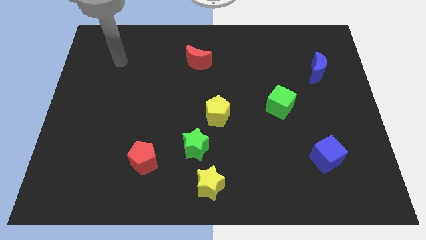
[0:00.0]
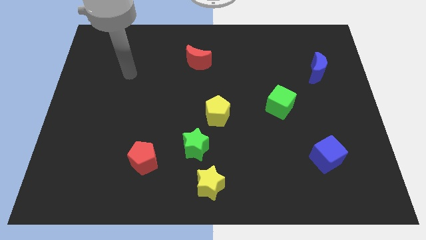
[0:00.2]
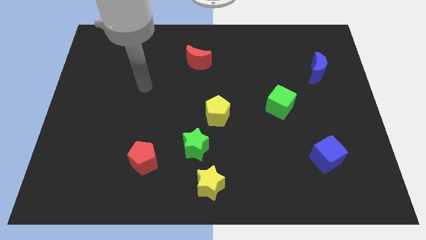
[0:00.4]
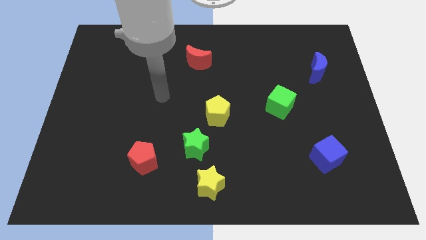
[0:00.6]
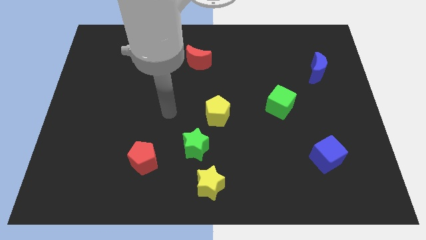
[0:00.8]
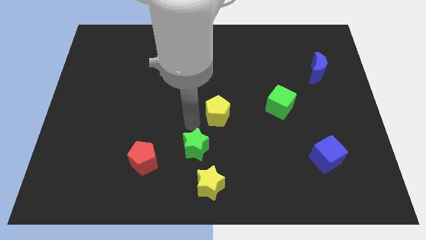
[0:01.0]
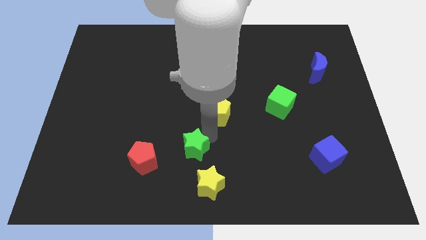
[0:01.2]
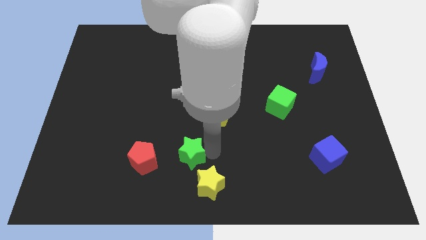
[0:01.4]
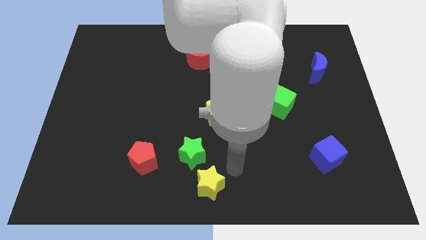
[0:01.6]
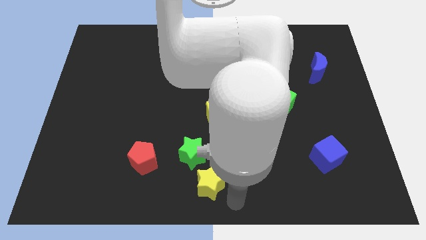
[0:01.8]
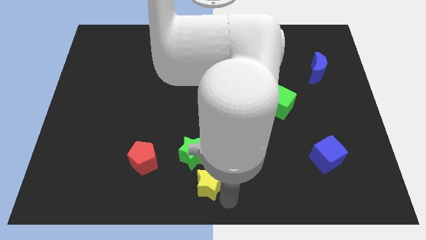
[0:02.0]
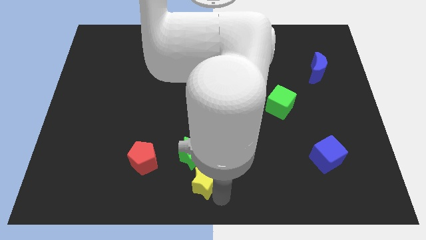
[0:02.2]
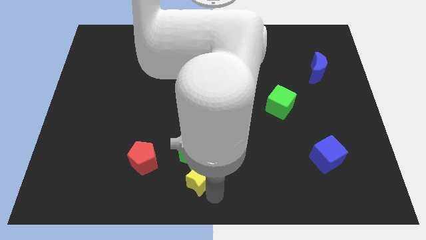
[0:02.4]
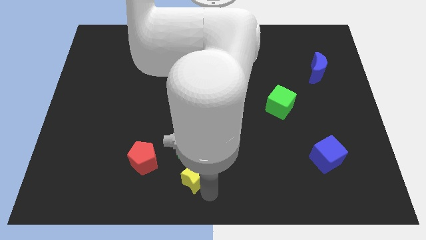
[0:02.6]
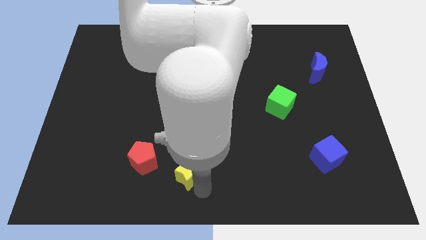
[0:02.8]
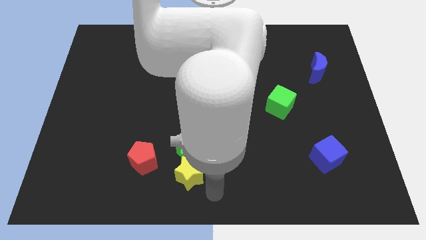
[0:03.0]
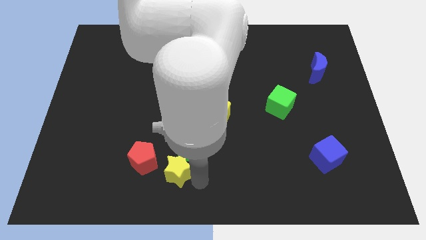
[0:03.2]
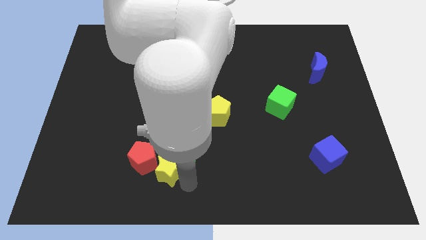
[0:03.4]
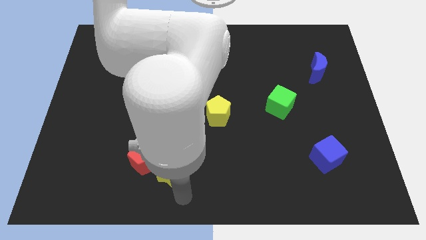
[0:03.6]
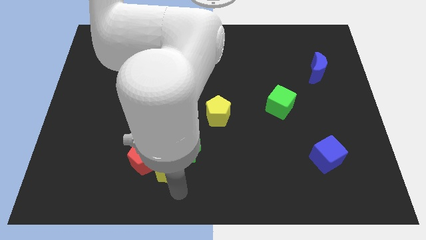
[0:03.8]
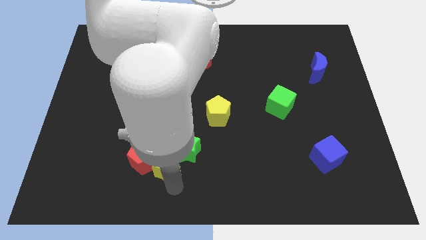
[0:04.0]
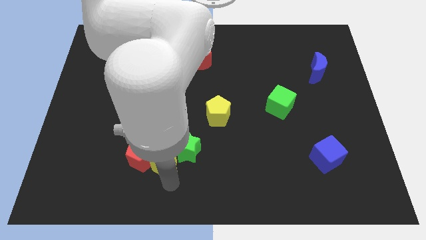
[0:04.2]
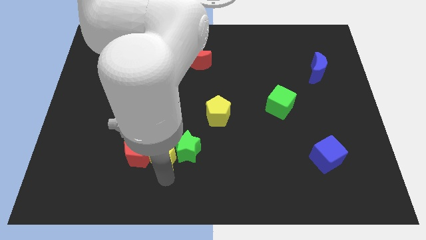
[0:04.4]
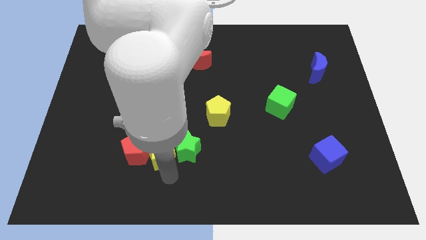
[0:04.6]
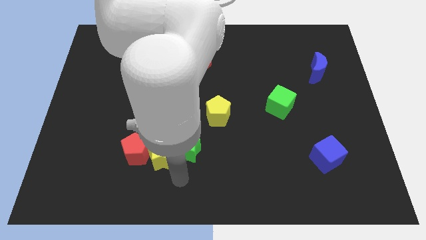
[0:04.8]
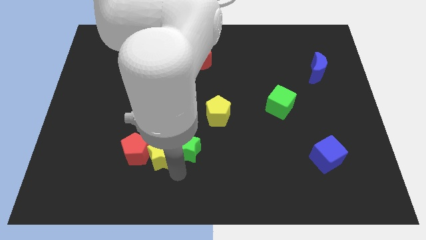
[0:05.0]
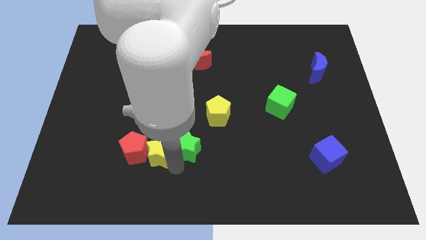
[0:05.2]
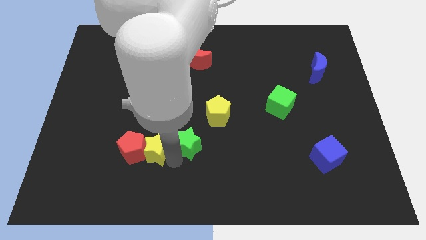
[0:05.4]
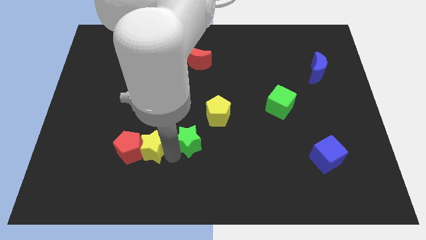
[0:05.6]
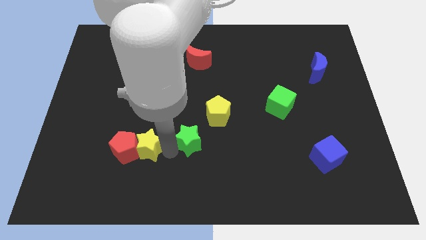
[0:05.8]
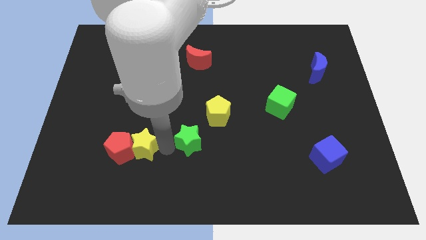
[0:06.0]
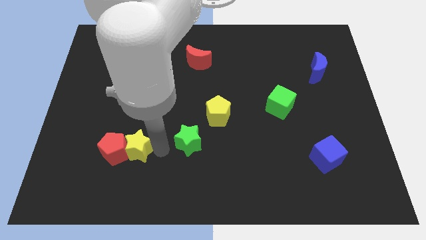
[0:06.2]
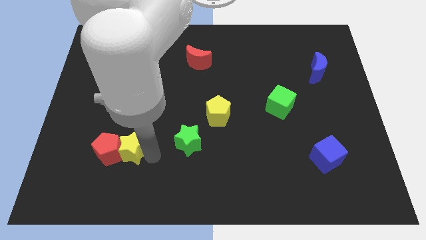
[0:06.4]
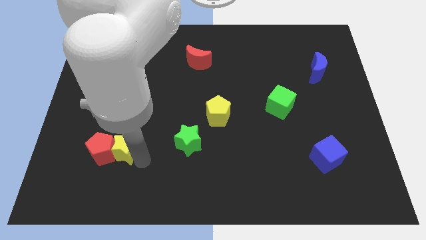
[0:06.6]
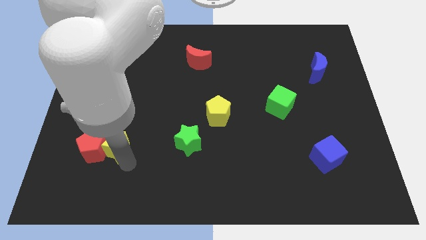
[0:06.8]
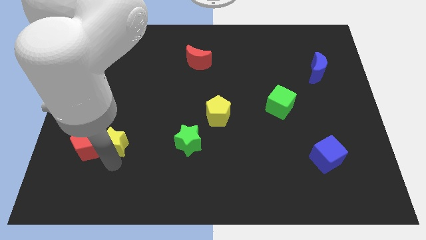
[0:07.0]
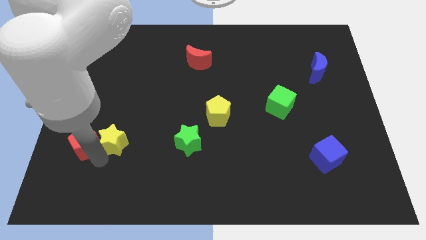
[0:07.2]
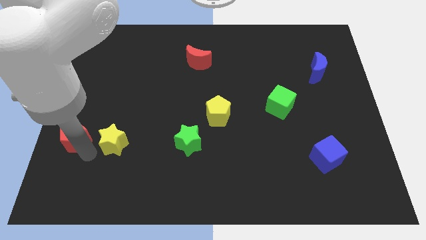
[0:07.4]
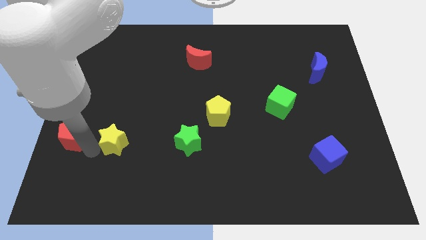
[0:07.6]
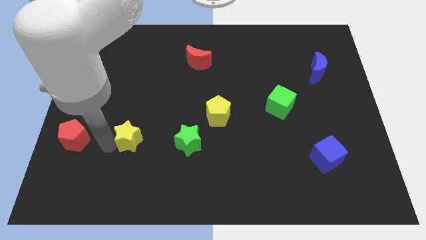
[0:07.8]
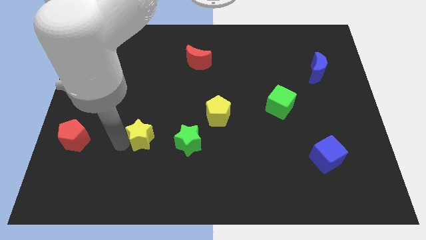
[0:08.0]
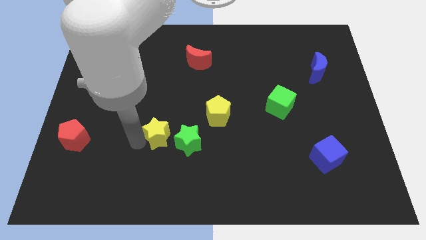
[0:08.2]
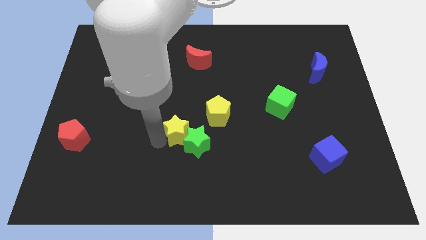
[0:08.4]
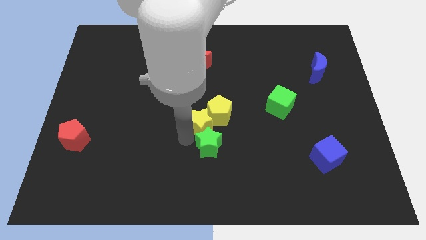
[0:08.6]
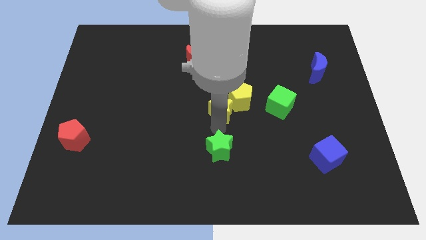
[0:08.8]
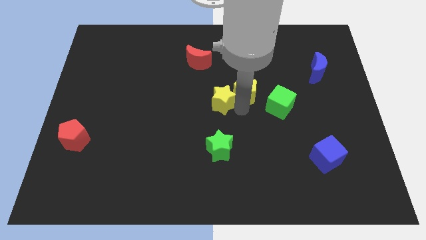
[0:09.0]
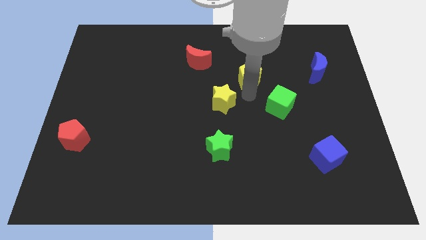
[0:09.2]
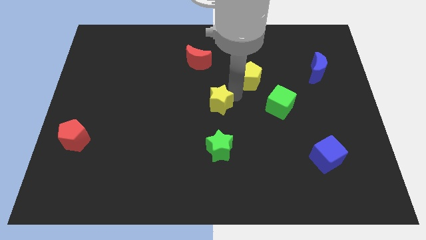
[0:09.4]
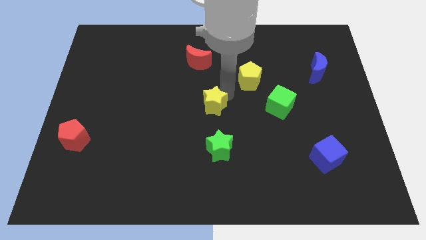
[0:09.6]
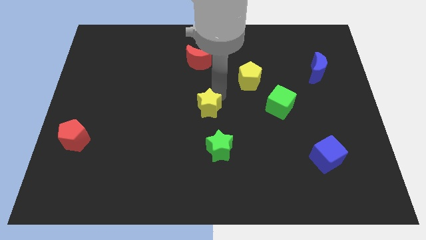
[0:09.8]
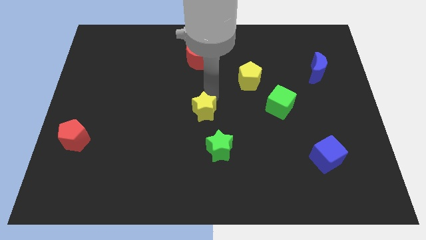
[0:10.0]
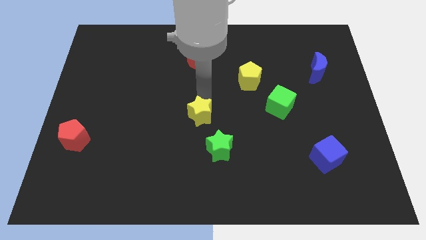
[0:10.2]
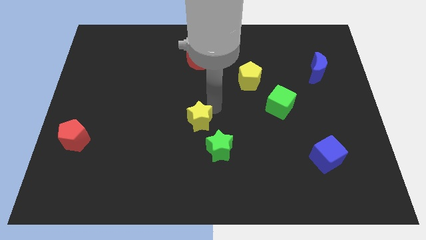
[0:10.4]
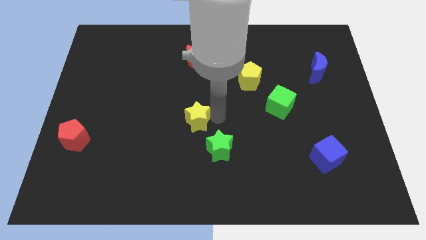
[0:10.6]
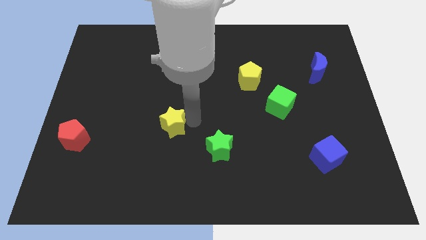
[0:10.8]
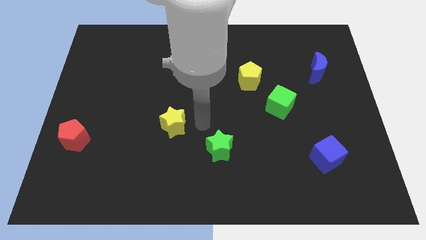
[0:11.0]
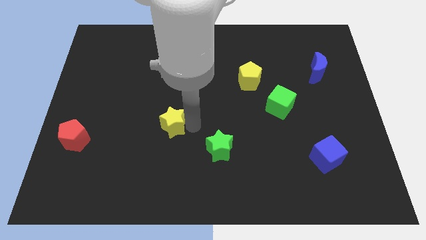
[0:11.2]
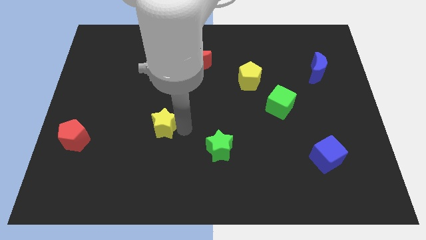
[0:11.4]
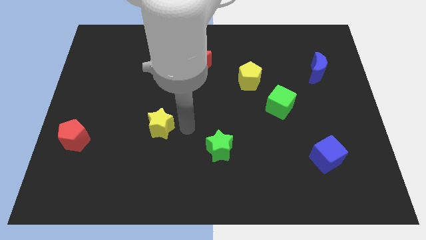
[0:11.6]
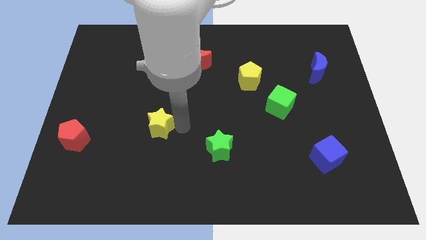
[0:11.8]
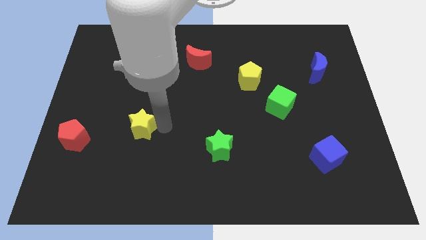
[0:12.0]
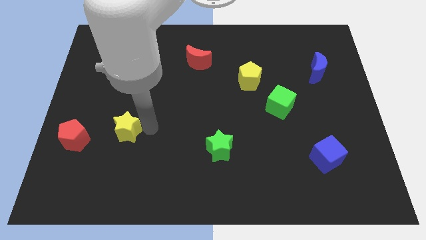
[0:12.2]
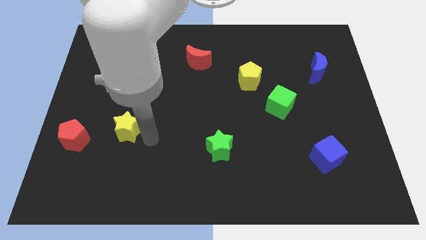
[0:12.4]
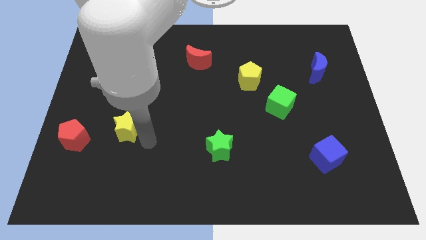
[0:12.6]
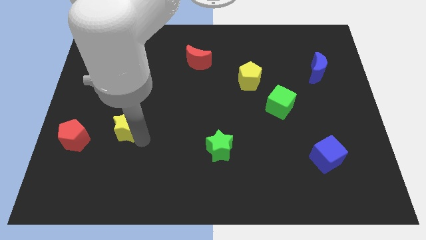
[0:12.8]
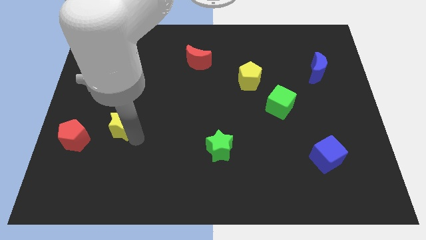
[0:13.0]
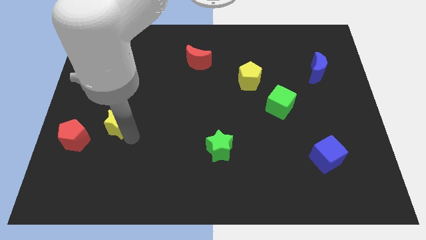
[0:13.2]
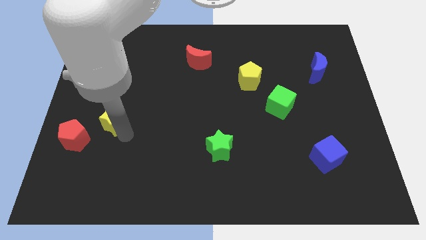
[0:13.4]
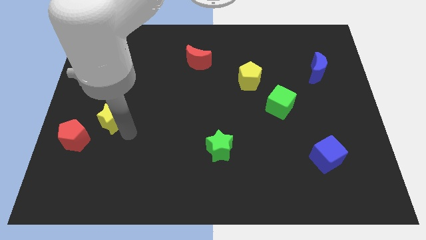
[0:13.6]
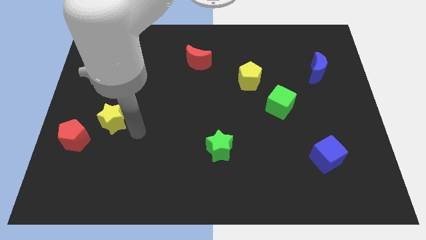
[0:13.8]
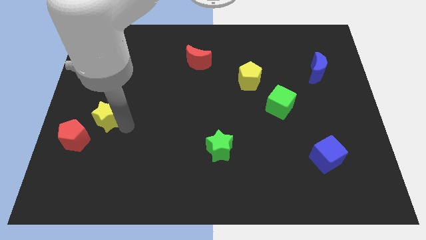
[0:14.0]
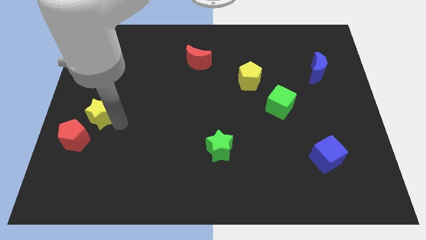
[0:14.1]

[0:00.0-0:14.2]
push the yellow star to the center left
